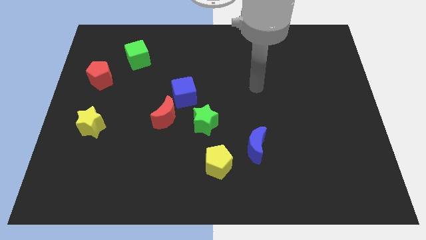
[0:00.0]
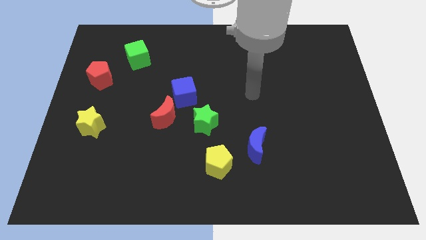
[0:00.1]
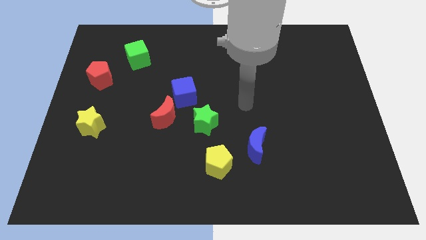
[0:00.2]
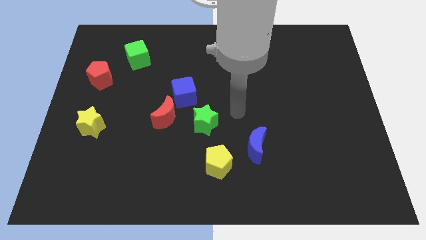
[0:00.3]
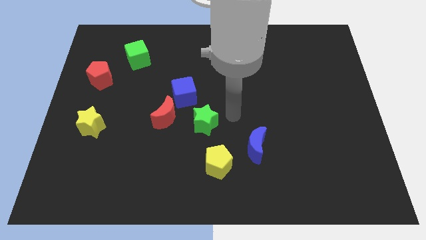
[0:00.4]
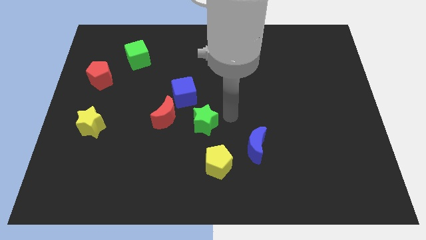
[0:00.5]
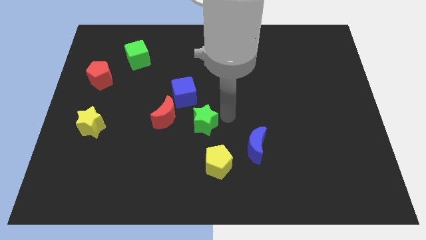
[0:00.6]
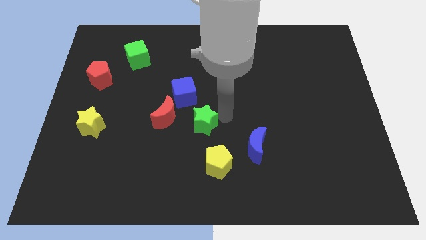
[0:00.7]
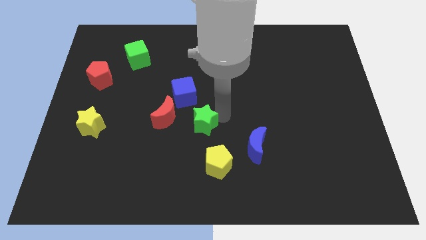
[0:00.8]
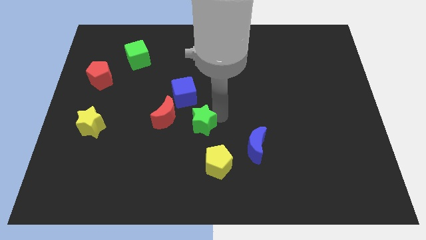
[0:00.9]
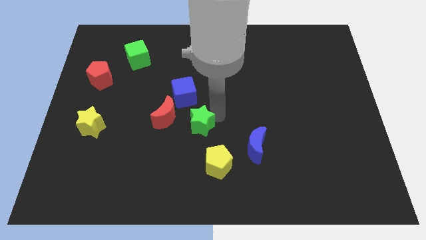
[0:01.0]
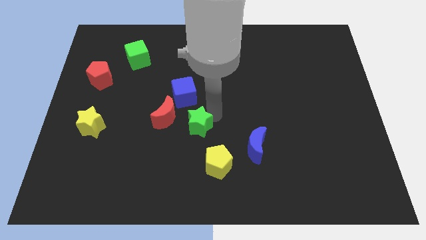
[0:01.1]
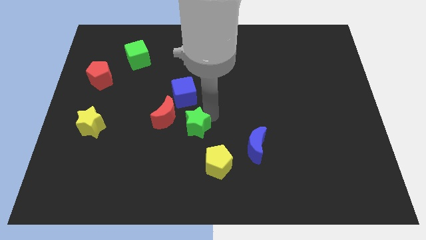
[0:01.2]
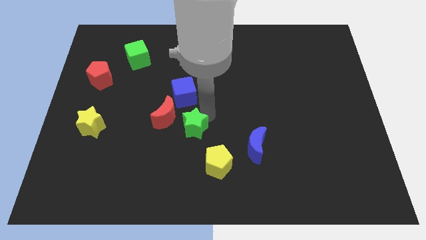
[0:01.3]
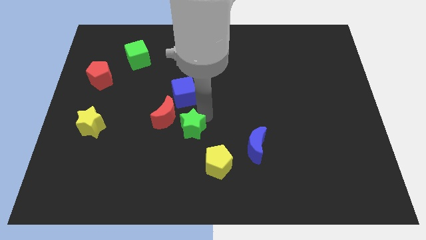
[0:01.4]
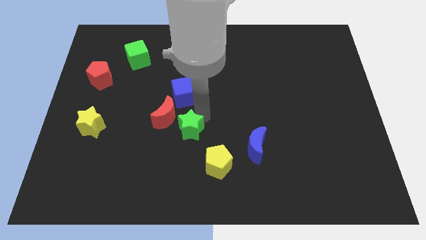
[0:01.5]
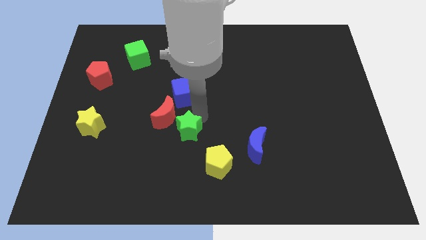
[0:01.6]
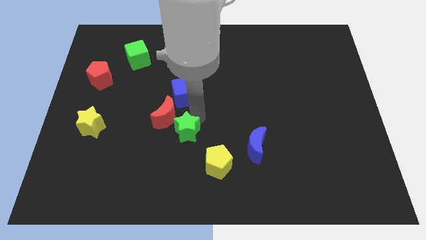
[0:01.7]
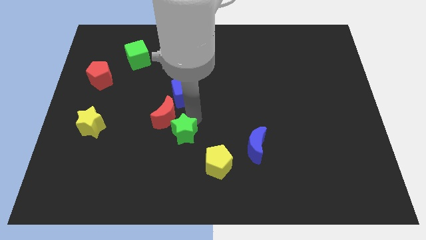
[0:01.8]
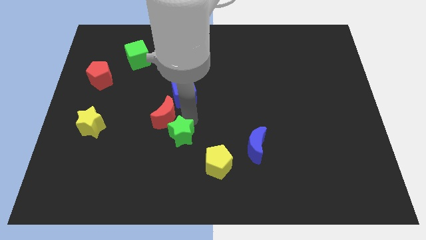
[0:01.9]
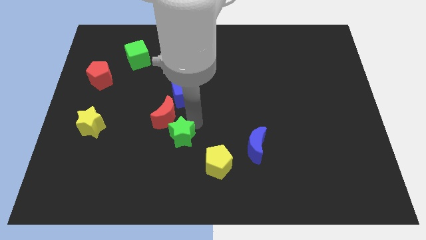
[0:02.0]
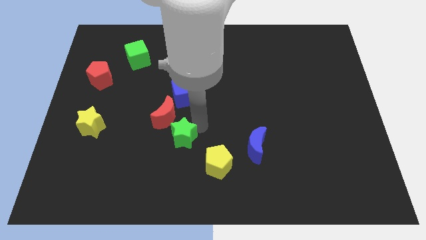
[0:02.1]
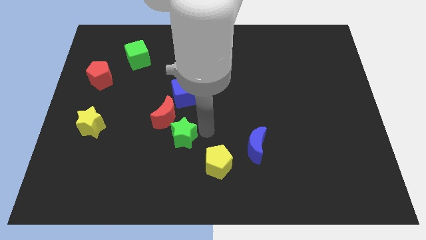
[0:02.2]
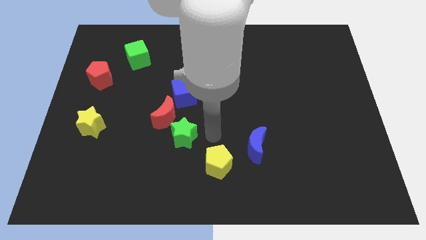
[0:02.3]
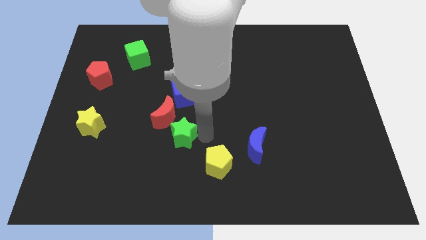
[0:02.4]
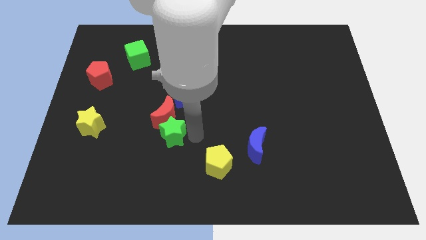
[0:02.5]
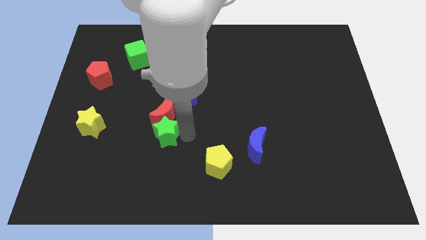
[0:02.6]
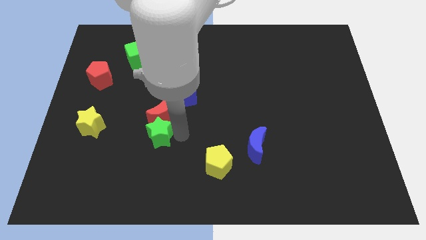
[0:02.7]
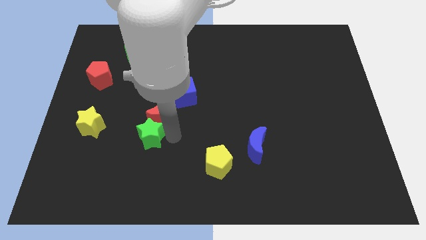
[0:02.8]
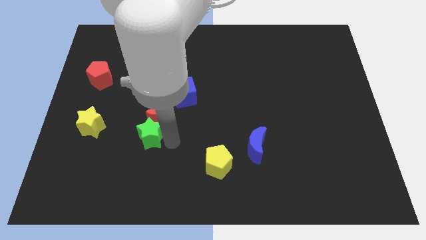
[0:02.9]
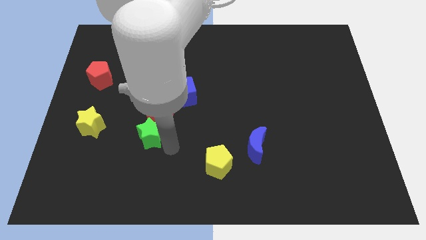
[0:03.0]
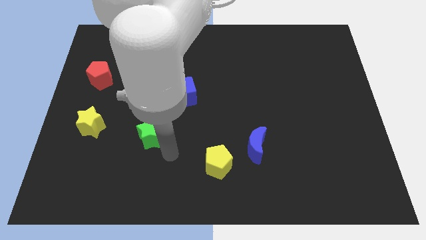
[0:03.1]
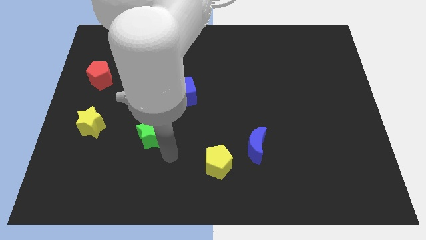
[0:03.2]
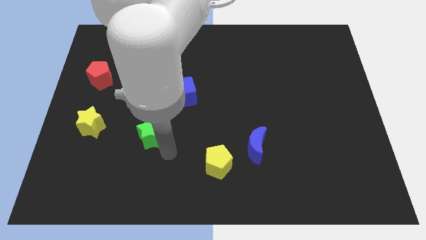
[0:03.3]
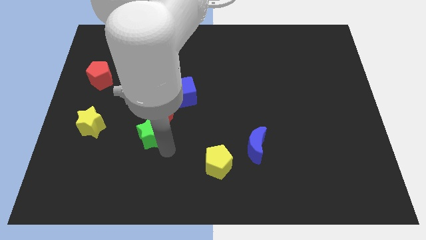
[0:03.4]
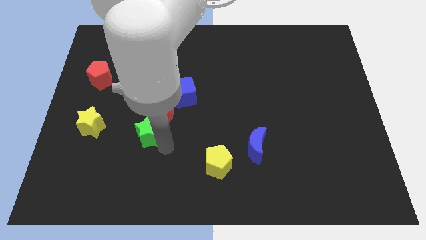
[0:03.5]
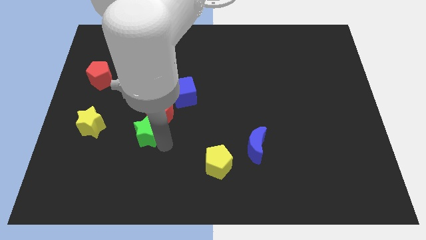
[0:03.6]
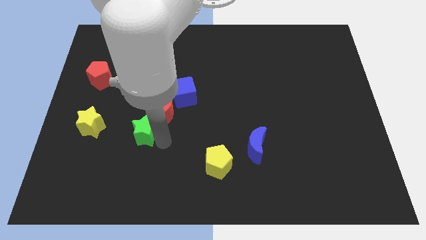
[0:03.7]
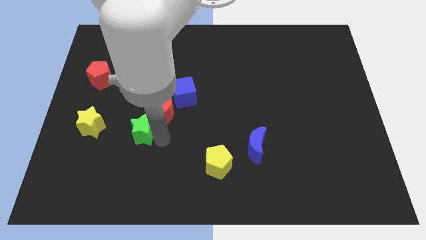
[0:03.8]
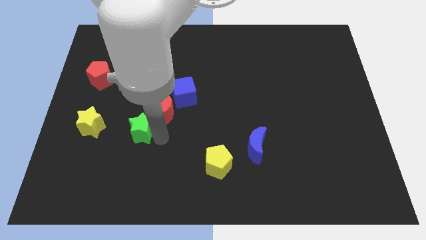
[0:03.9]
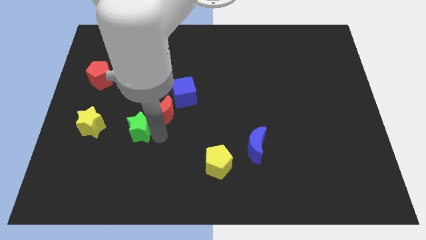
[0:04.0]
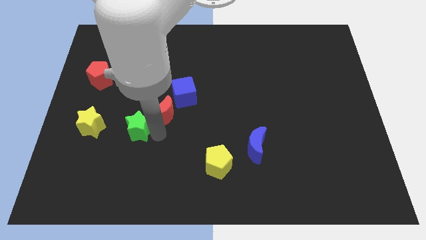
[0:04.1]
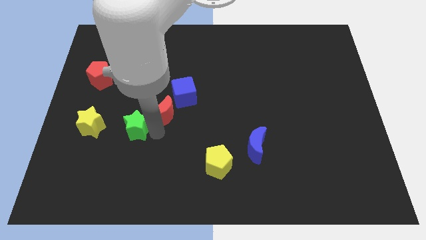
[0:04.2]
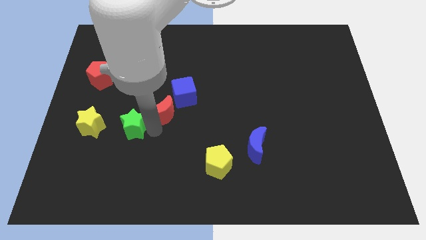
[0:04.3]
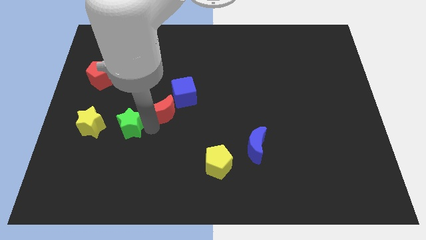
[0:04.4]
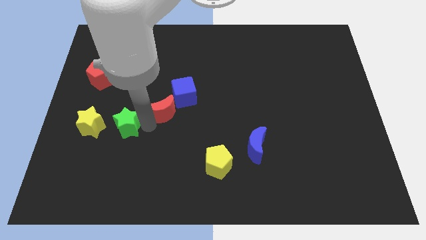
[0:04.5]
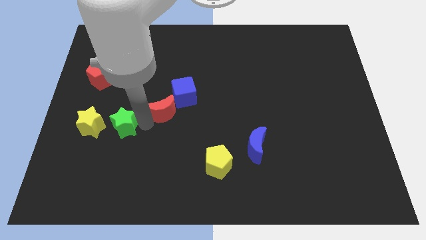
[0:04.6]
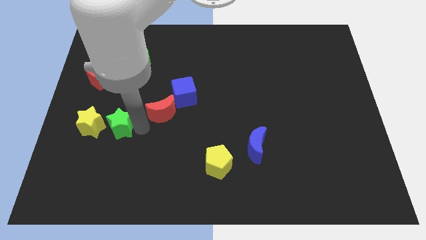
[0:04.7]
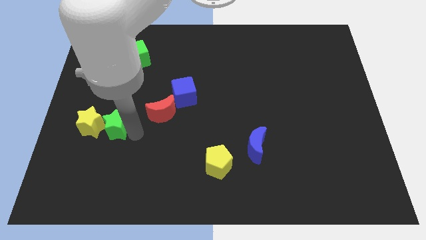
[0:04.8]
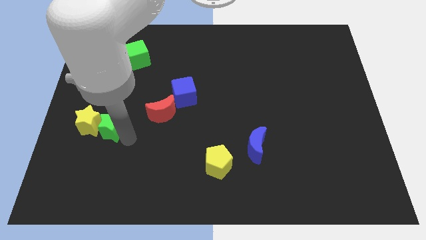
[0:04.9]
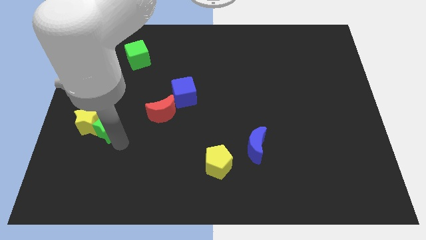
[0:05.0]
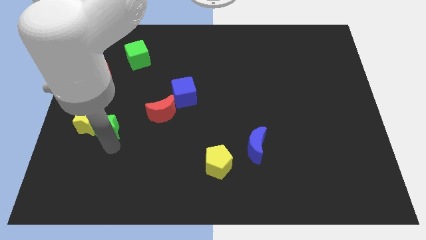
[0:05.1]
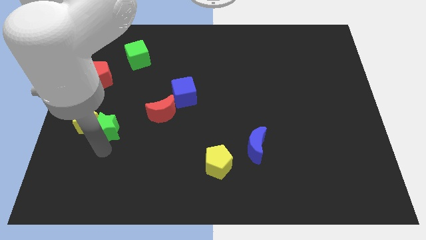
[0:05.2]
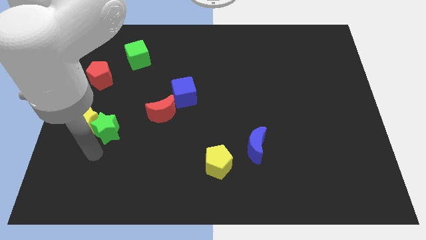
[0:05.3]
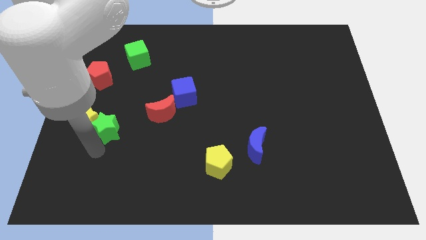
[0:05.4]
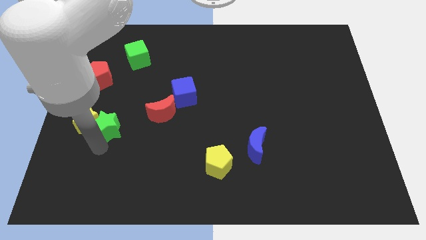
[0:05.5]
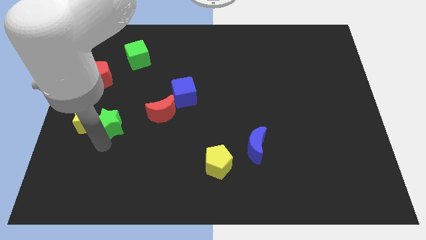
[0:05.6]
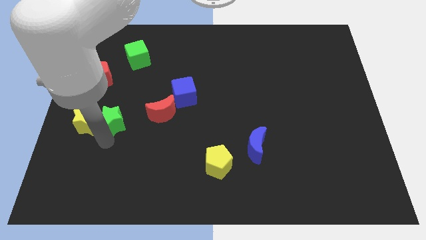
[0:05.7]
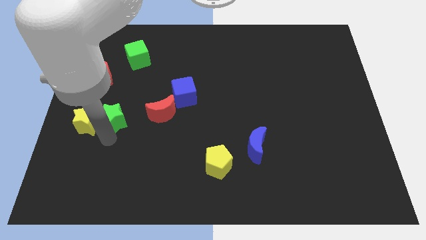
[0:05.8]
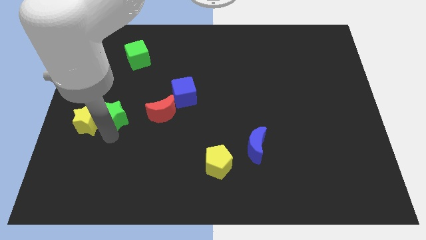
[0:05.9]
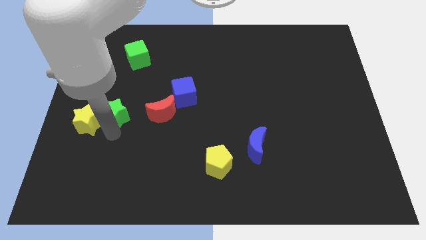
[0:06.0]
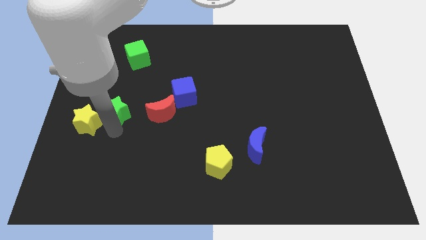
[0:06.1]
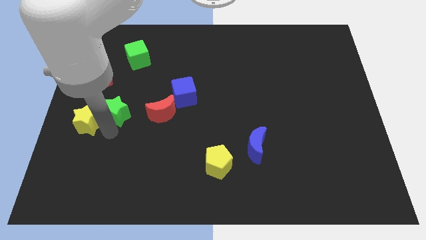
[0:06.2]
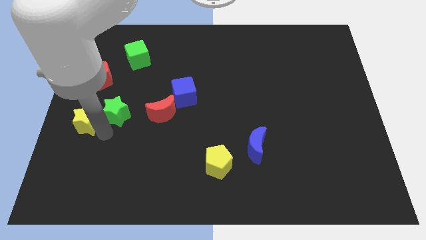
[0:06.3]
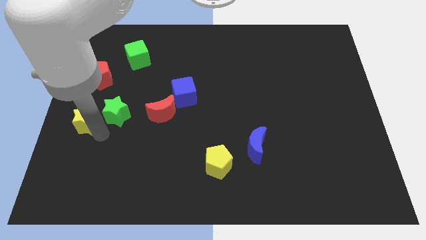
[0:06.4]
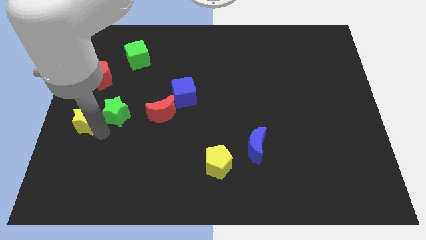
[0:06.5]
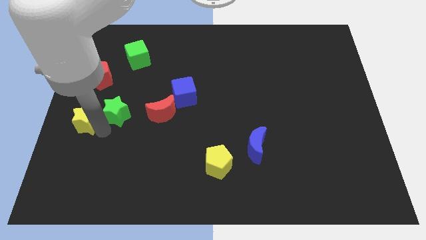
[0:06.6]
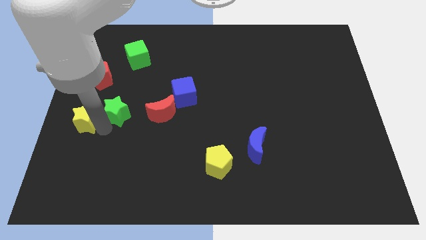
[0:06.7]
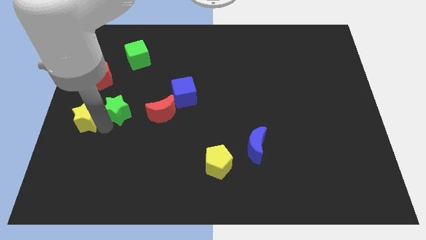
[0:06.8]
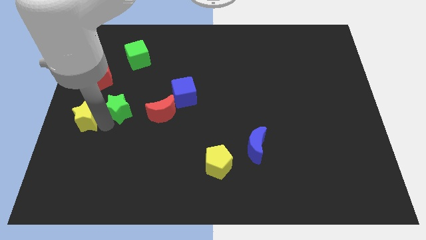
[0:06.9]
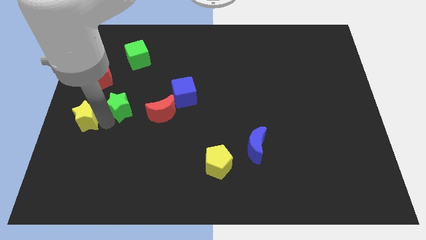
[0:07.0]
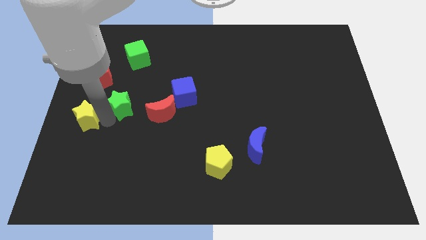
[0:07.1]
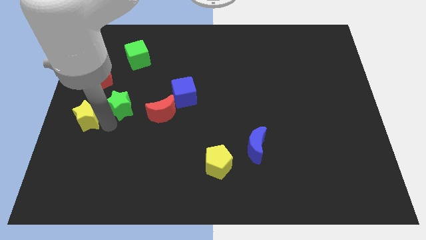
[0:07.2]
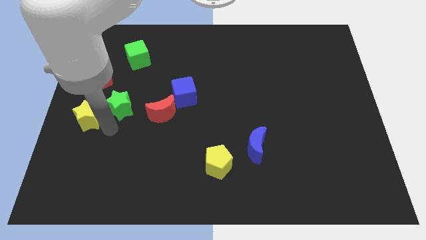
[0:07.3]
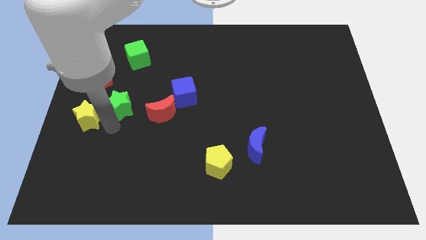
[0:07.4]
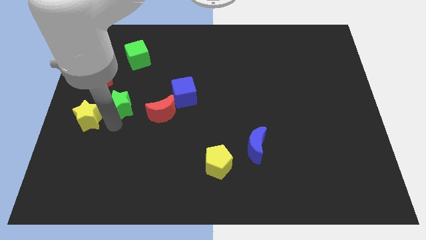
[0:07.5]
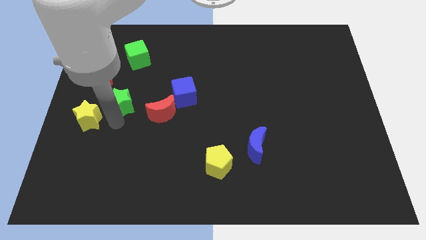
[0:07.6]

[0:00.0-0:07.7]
move the green star below the green cube
